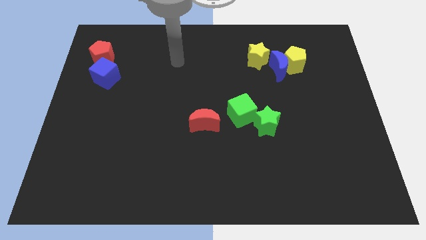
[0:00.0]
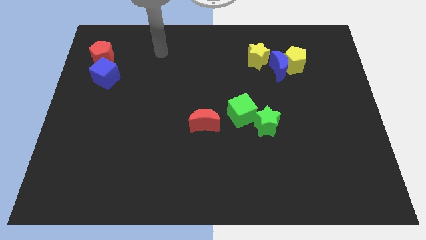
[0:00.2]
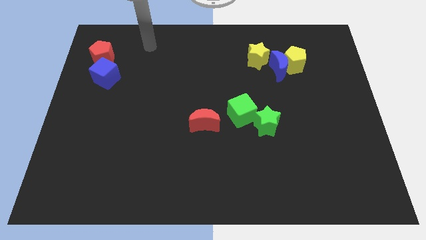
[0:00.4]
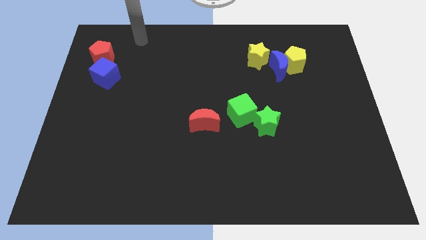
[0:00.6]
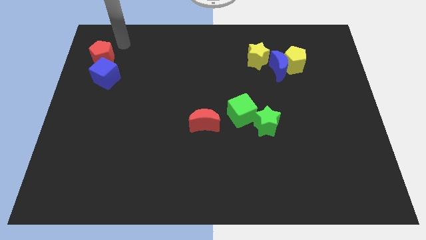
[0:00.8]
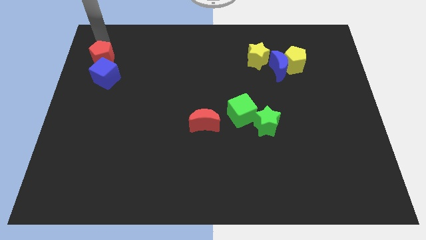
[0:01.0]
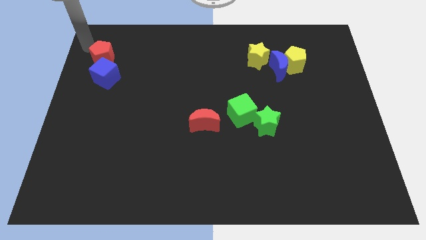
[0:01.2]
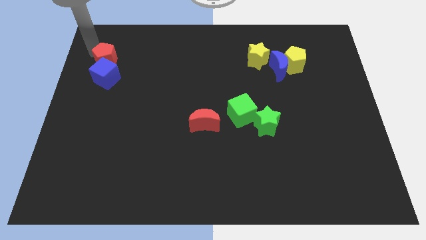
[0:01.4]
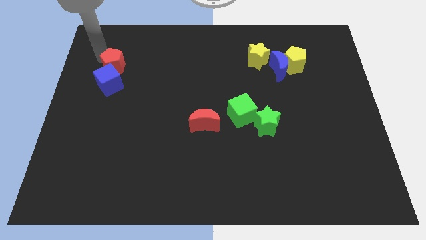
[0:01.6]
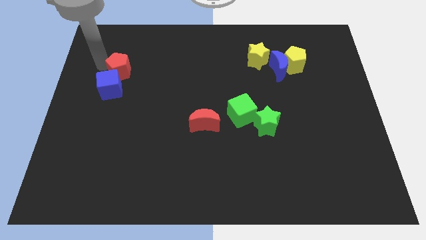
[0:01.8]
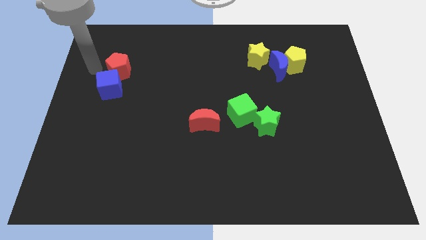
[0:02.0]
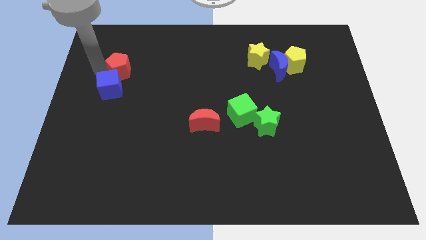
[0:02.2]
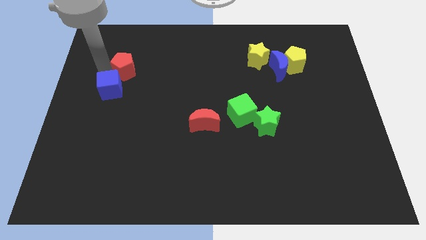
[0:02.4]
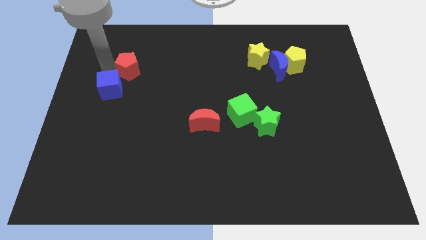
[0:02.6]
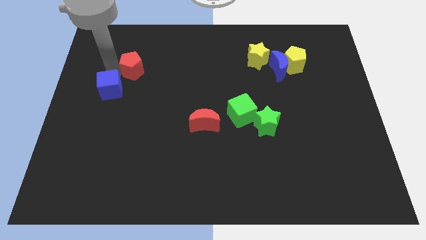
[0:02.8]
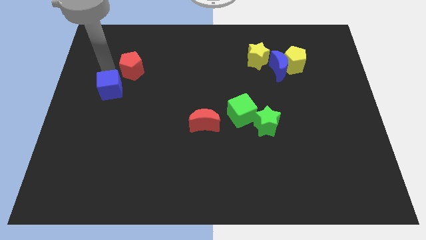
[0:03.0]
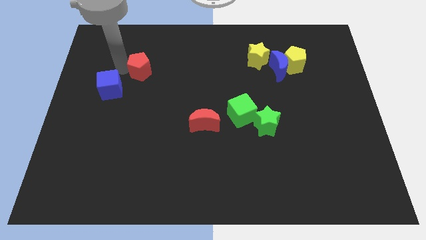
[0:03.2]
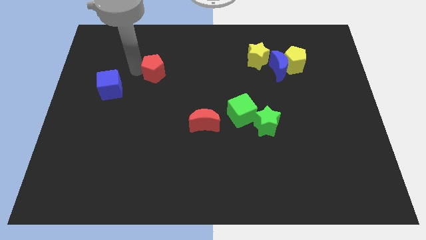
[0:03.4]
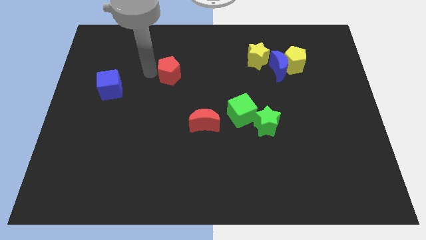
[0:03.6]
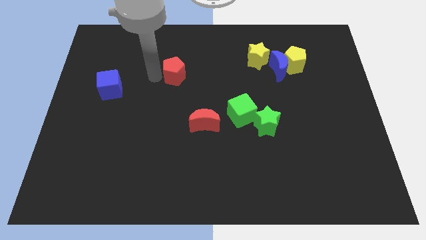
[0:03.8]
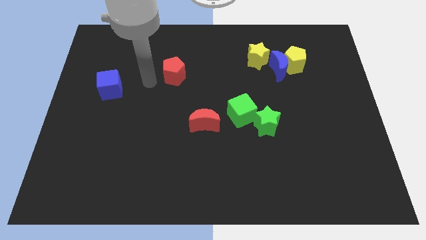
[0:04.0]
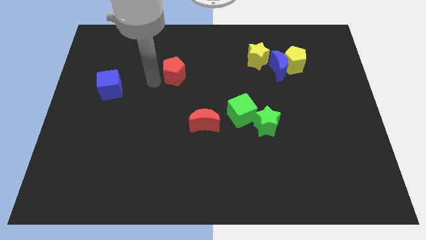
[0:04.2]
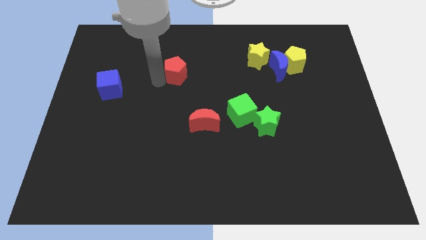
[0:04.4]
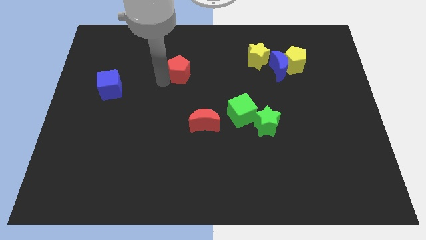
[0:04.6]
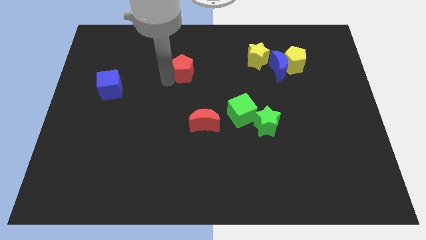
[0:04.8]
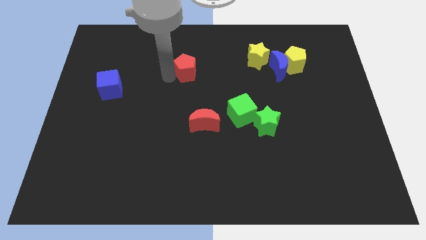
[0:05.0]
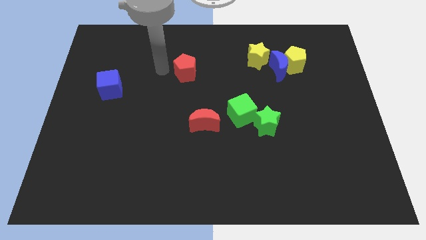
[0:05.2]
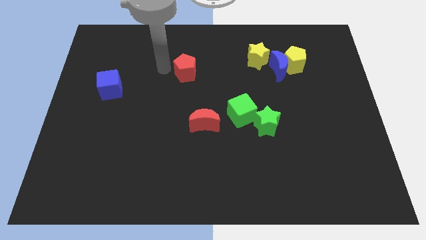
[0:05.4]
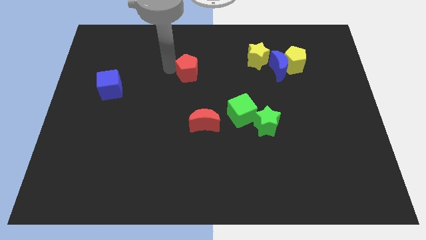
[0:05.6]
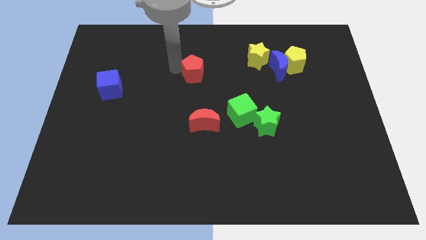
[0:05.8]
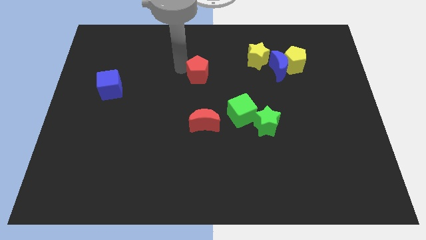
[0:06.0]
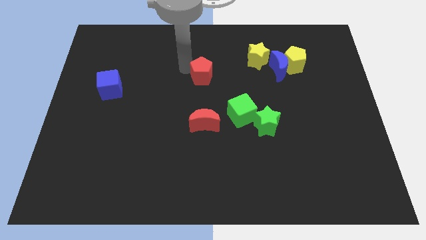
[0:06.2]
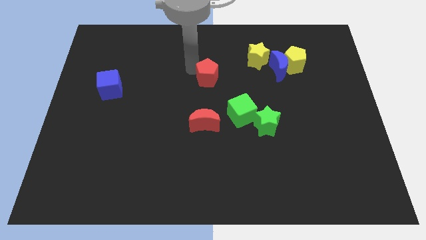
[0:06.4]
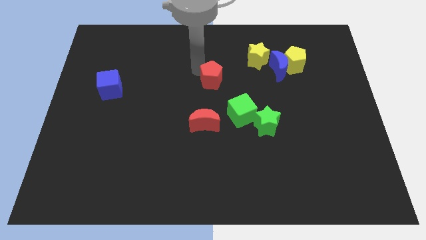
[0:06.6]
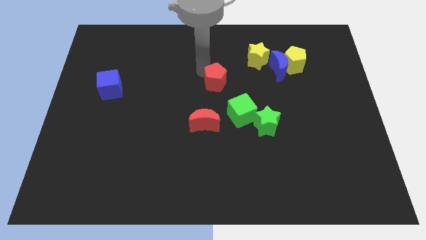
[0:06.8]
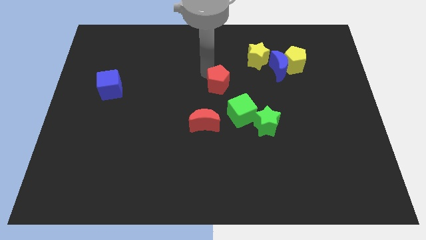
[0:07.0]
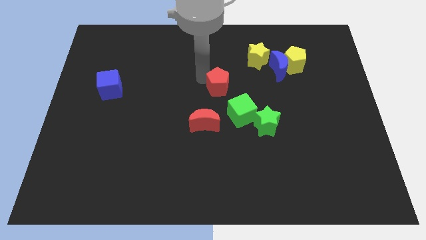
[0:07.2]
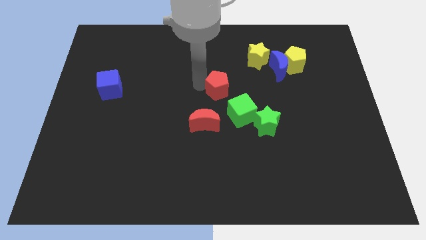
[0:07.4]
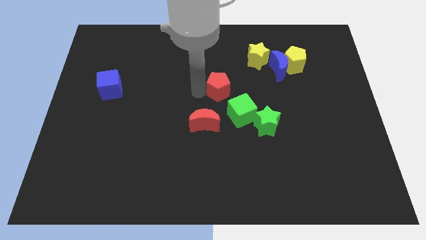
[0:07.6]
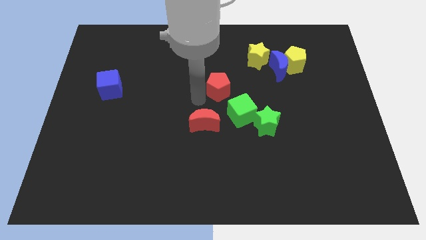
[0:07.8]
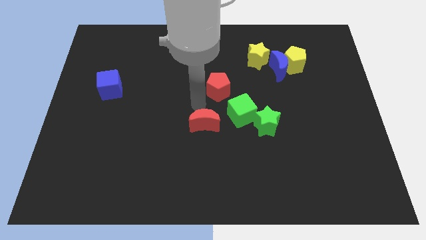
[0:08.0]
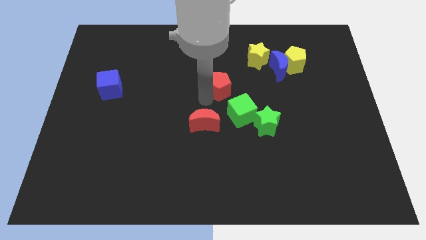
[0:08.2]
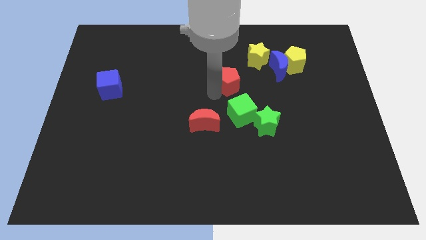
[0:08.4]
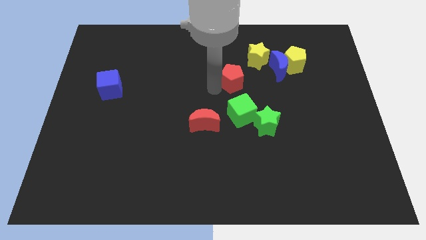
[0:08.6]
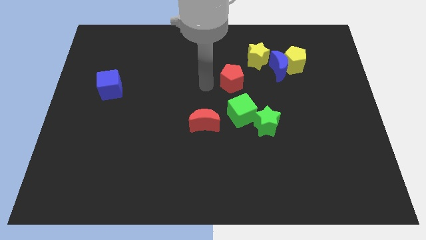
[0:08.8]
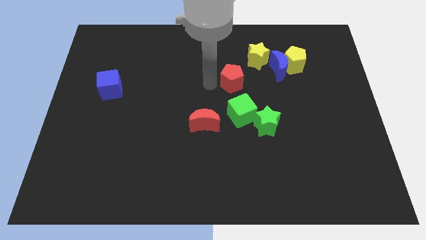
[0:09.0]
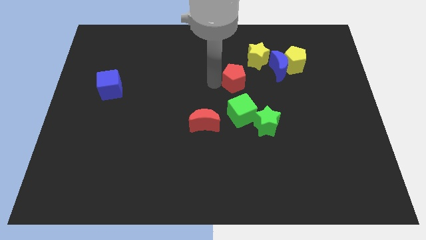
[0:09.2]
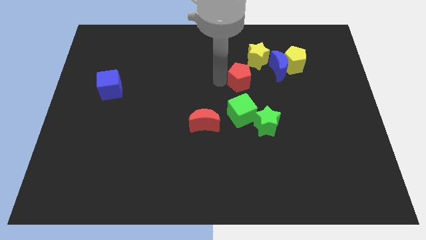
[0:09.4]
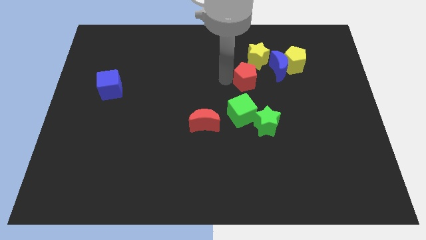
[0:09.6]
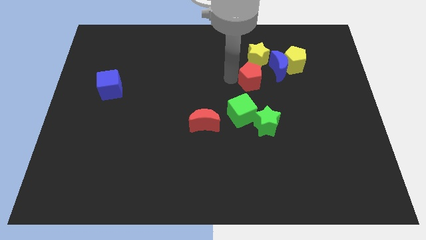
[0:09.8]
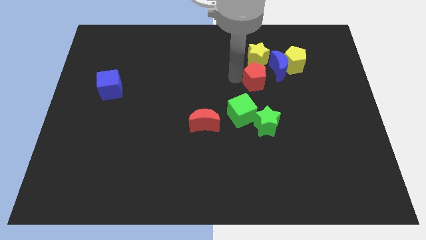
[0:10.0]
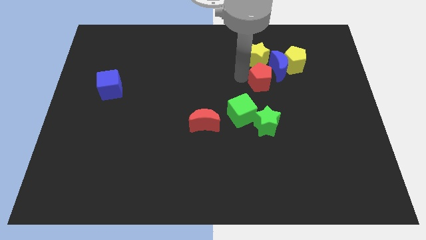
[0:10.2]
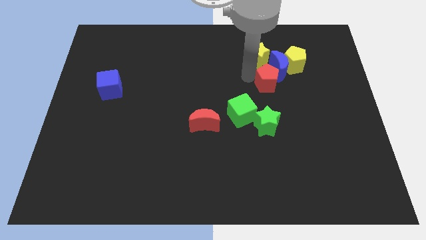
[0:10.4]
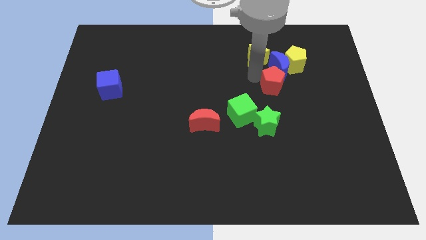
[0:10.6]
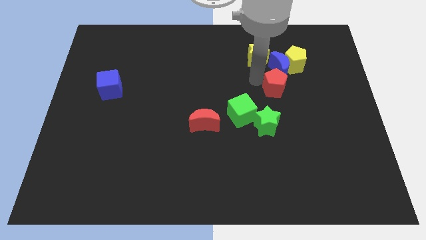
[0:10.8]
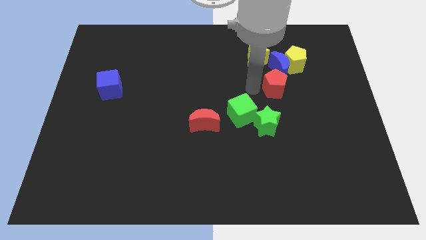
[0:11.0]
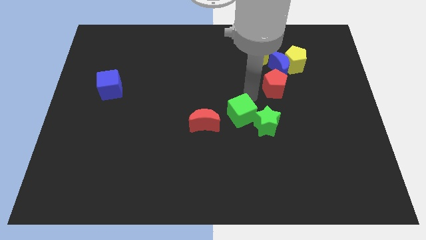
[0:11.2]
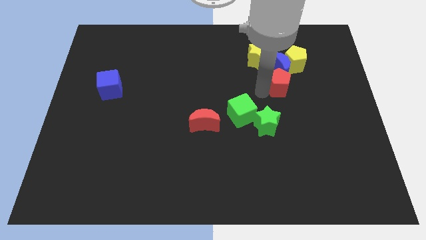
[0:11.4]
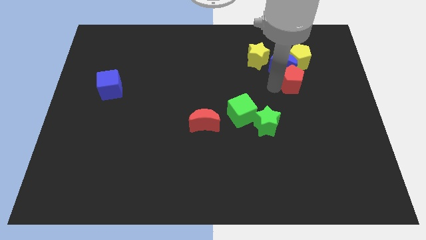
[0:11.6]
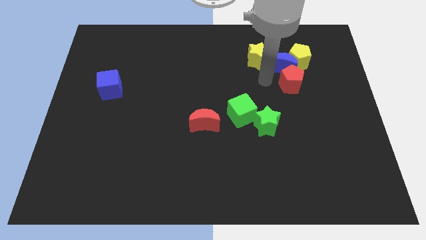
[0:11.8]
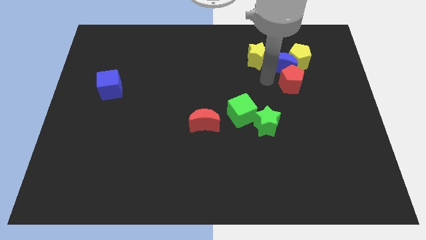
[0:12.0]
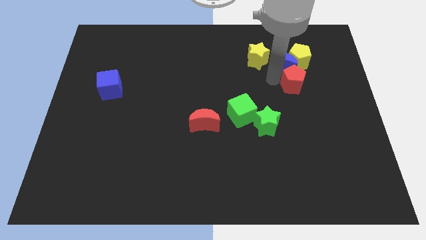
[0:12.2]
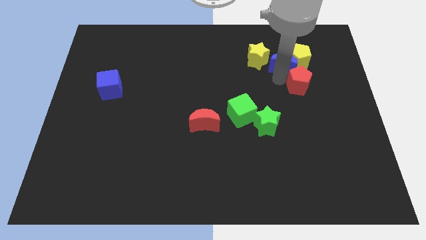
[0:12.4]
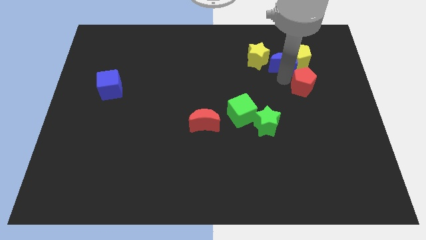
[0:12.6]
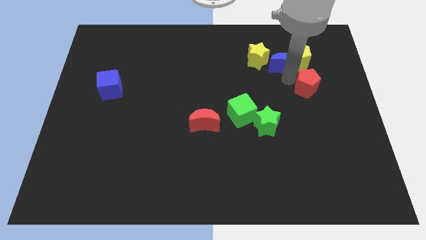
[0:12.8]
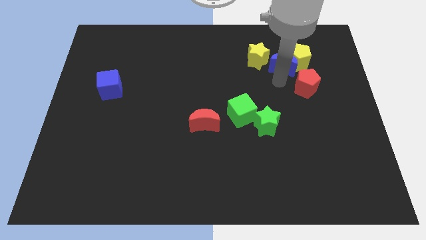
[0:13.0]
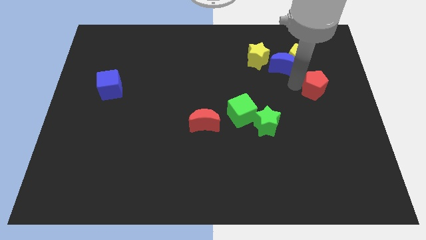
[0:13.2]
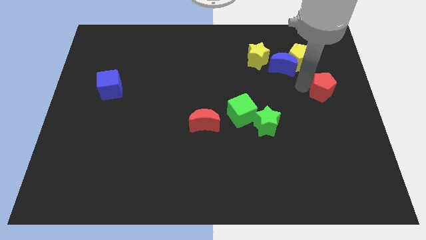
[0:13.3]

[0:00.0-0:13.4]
push the red pentagon to the right side of the board
